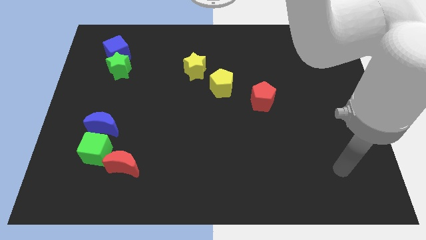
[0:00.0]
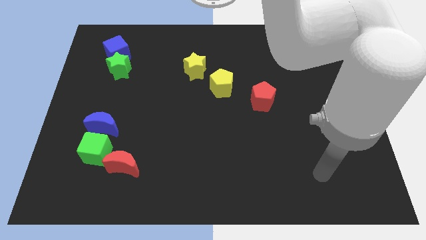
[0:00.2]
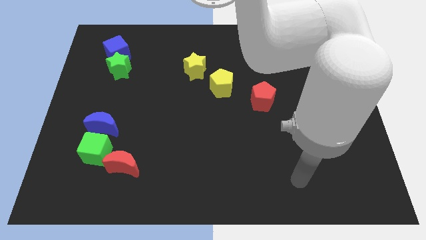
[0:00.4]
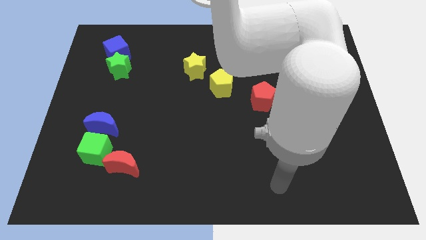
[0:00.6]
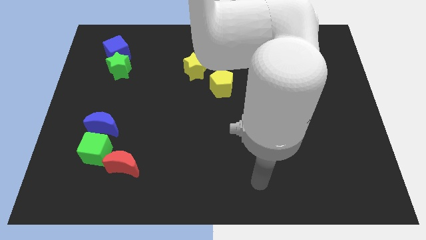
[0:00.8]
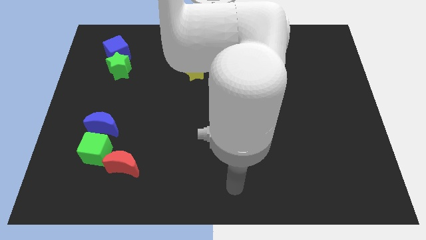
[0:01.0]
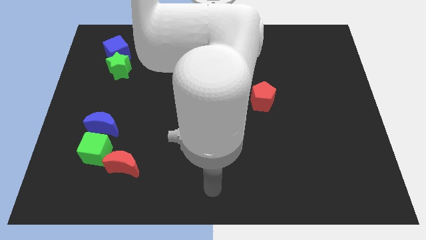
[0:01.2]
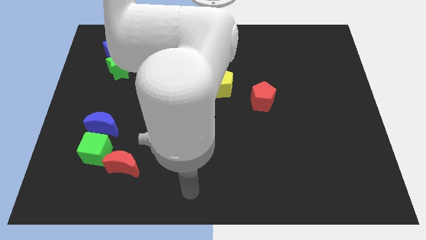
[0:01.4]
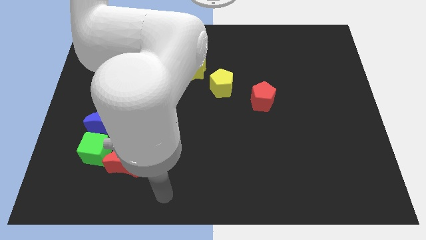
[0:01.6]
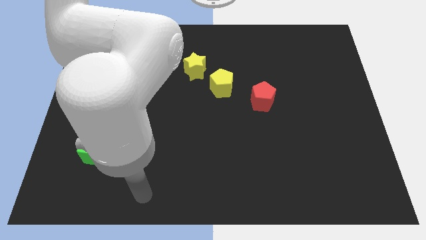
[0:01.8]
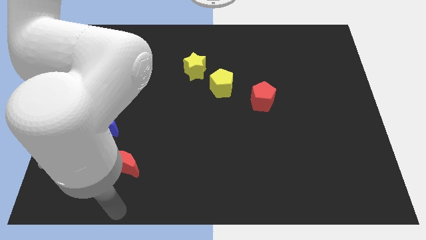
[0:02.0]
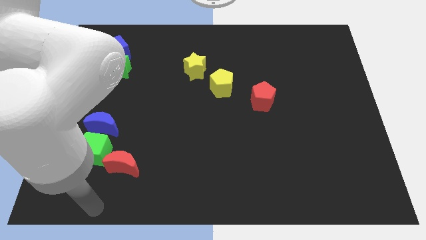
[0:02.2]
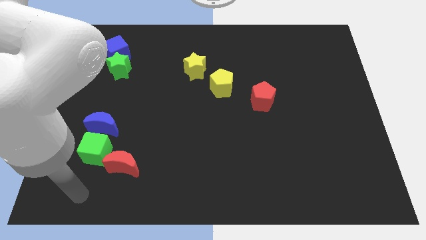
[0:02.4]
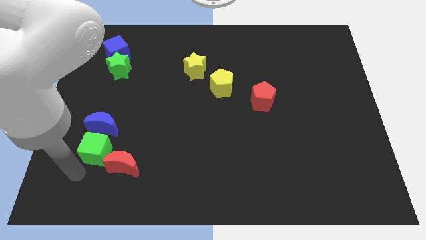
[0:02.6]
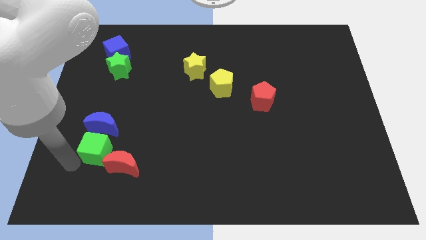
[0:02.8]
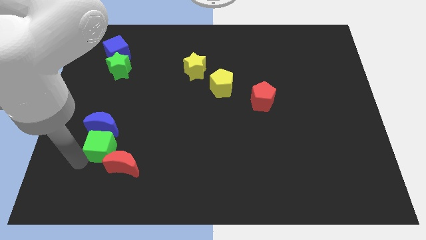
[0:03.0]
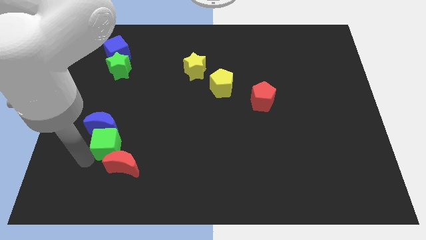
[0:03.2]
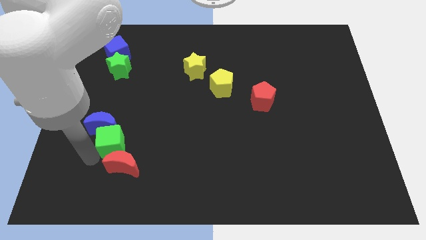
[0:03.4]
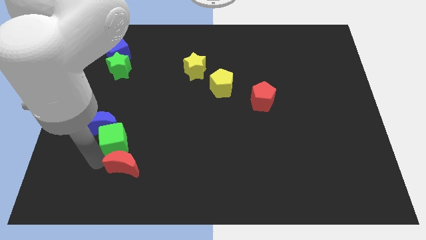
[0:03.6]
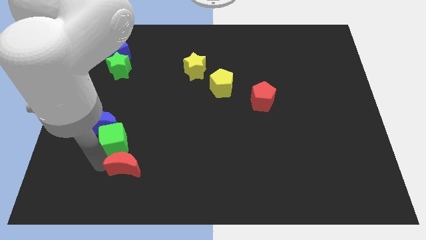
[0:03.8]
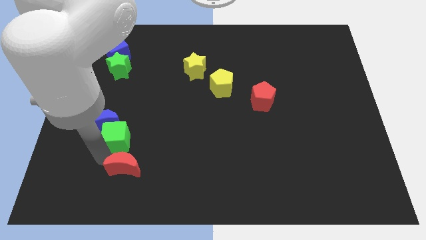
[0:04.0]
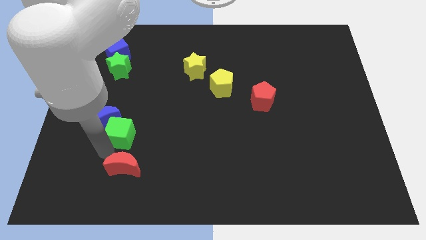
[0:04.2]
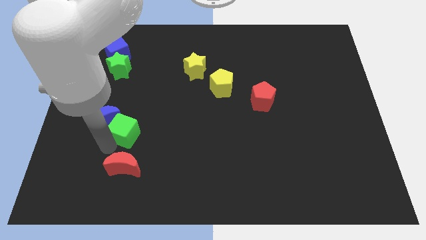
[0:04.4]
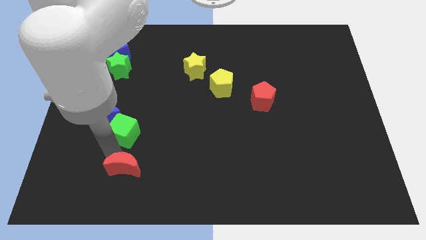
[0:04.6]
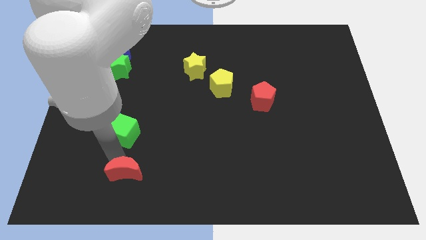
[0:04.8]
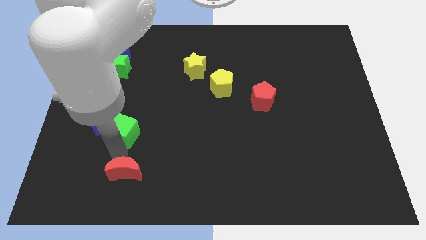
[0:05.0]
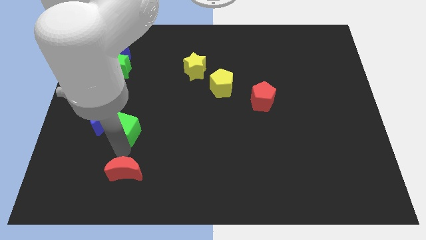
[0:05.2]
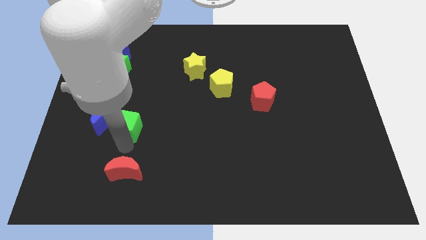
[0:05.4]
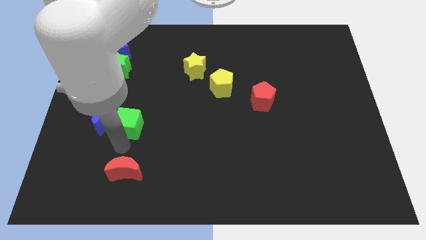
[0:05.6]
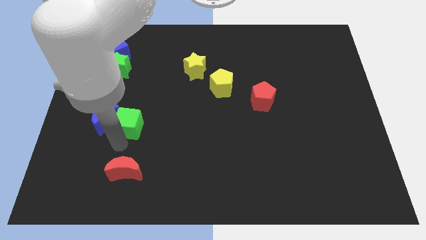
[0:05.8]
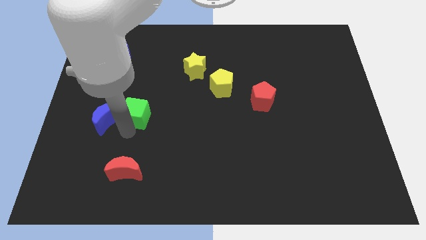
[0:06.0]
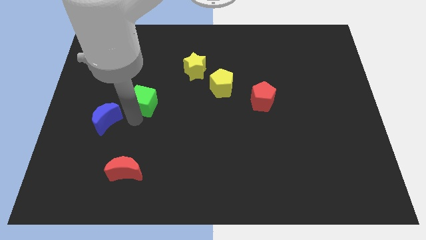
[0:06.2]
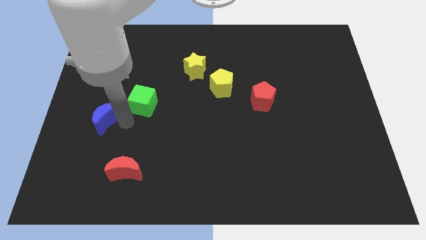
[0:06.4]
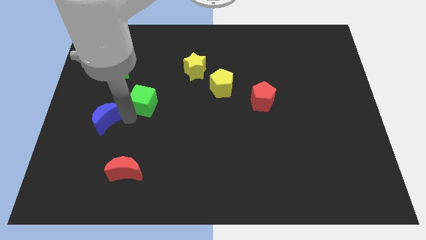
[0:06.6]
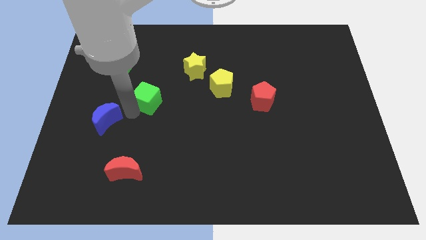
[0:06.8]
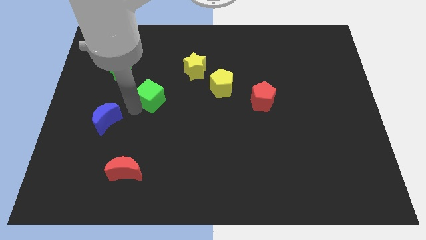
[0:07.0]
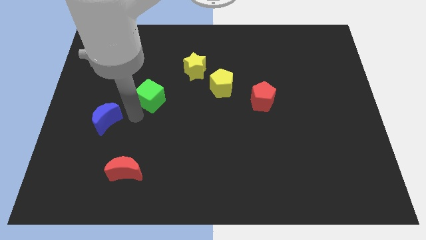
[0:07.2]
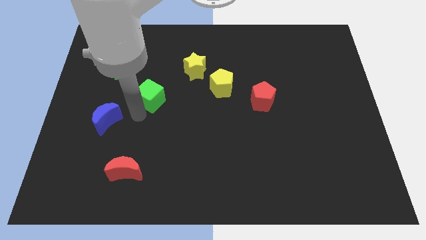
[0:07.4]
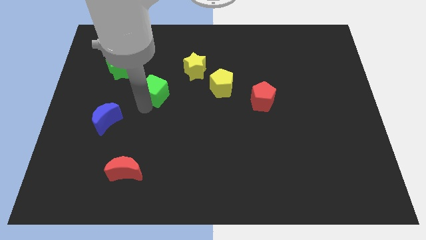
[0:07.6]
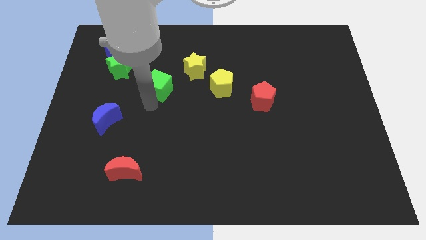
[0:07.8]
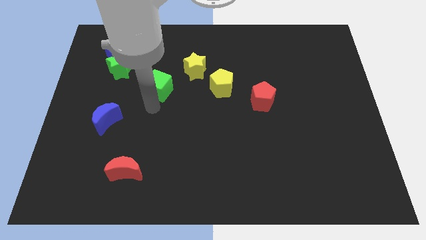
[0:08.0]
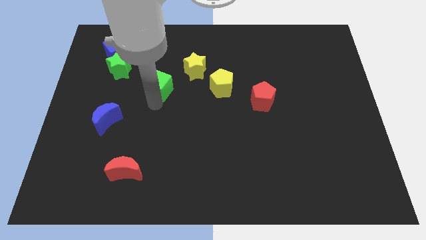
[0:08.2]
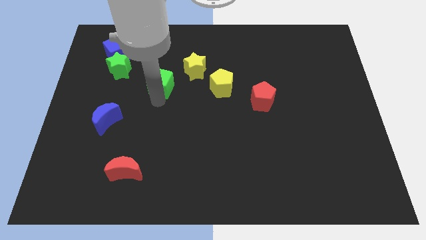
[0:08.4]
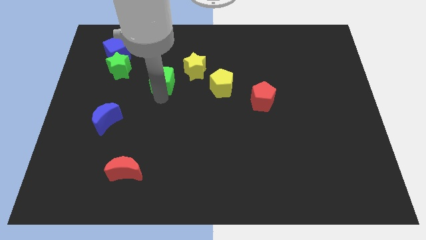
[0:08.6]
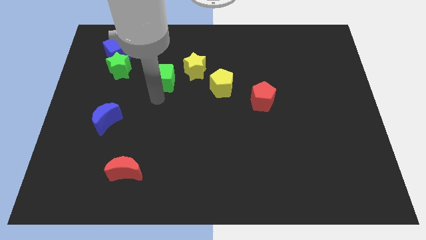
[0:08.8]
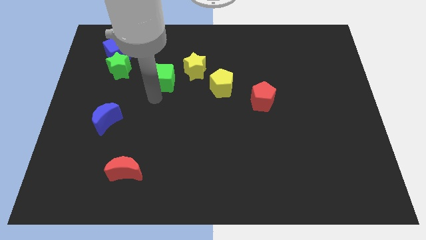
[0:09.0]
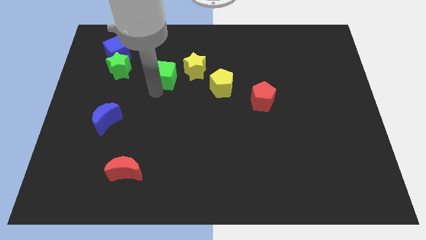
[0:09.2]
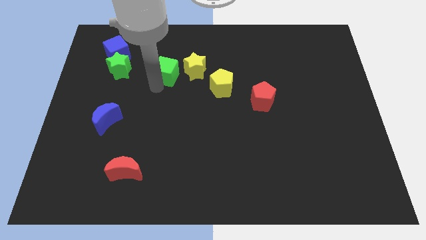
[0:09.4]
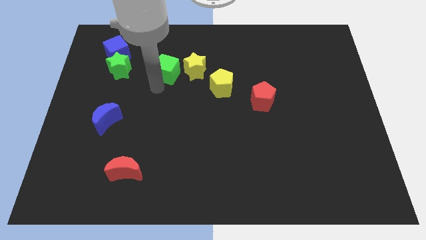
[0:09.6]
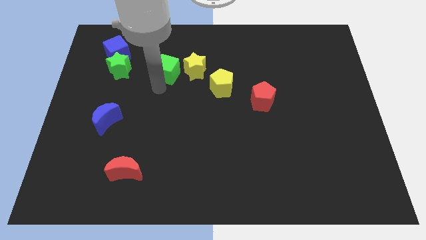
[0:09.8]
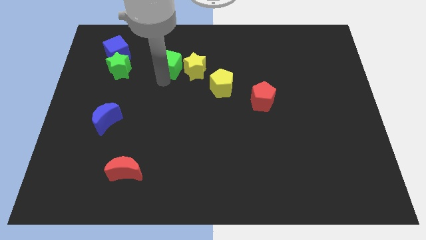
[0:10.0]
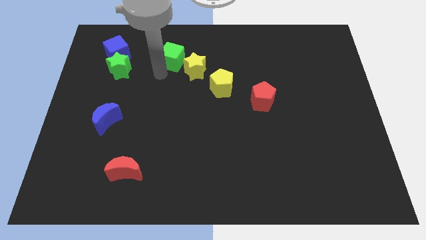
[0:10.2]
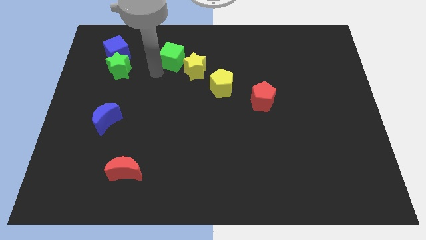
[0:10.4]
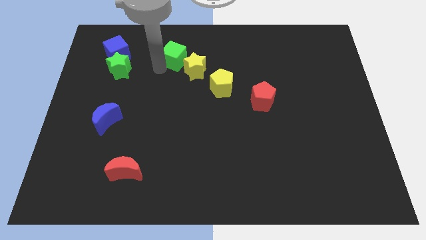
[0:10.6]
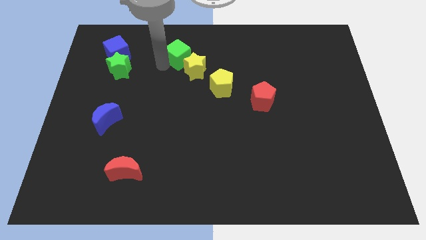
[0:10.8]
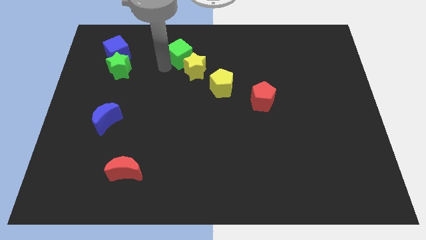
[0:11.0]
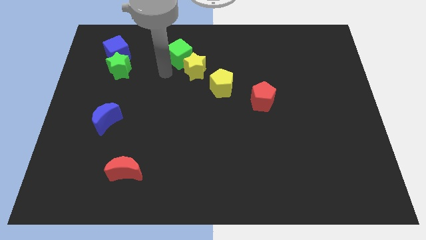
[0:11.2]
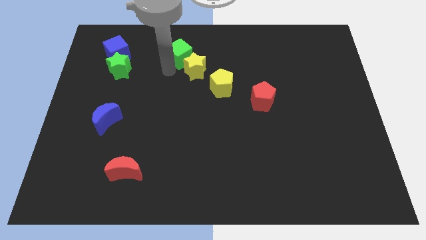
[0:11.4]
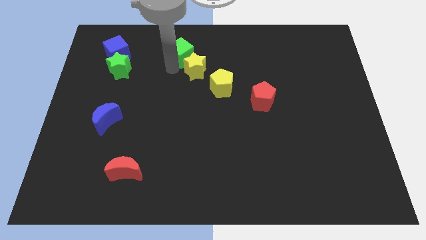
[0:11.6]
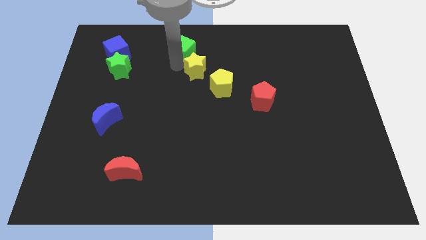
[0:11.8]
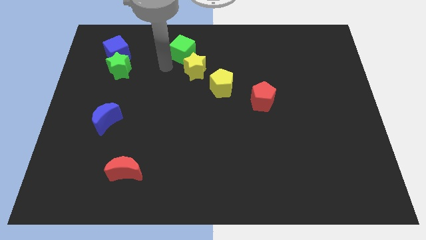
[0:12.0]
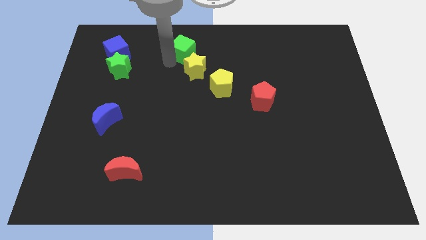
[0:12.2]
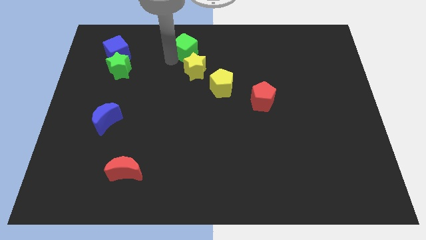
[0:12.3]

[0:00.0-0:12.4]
slide the green cube to the towards your base

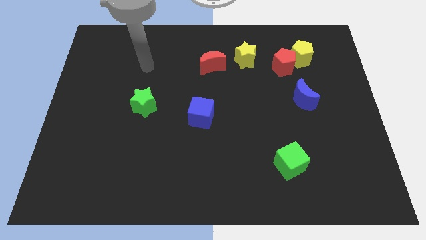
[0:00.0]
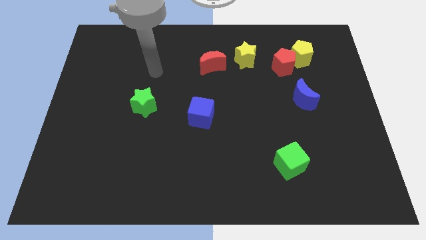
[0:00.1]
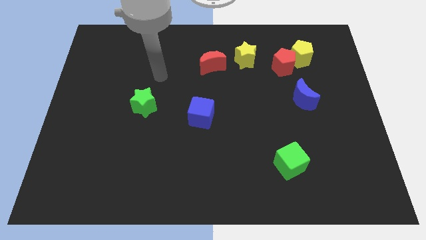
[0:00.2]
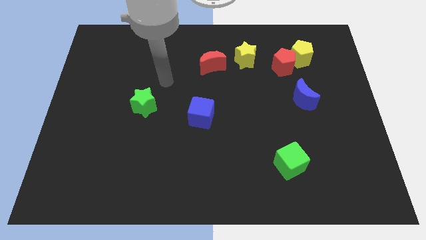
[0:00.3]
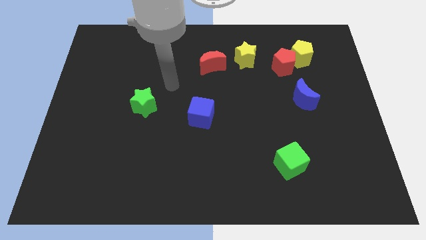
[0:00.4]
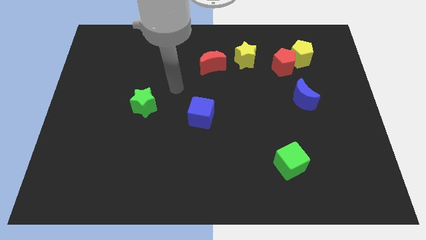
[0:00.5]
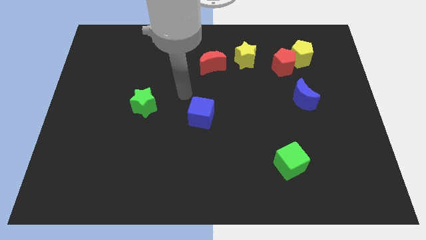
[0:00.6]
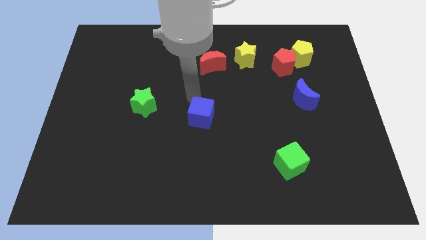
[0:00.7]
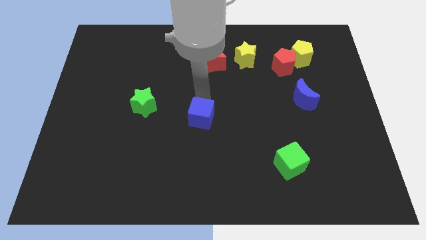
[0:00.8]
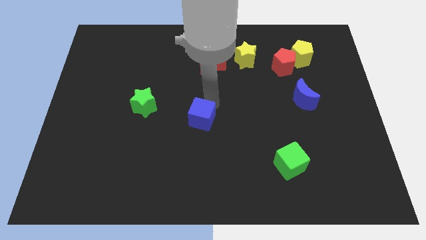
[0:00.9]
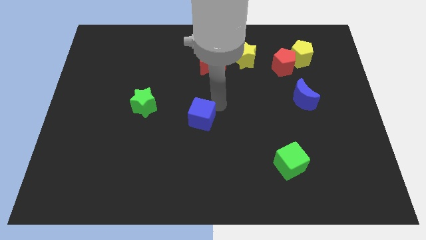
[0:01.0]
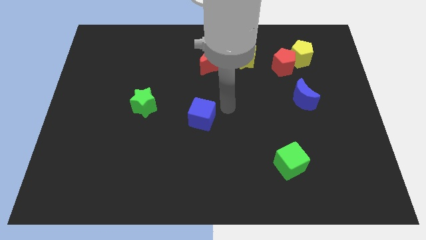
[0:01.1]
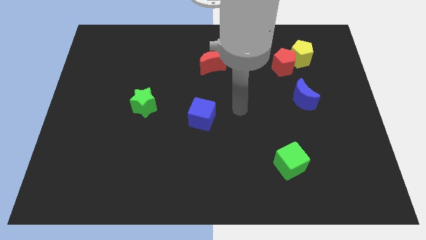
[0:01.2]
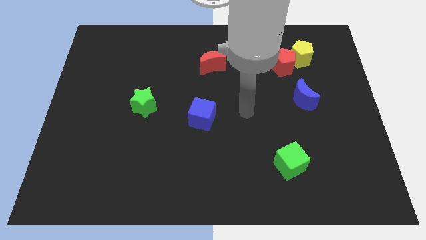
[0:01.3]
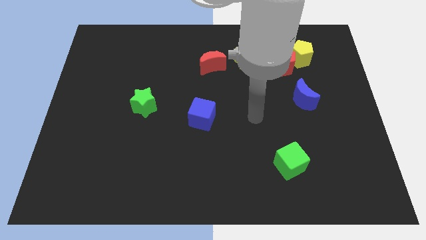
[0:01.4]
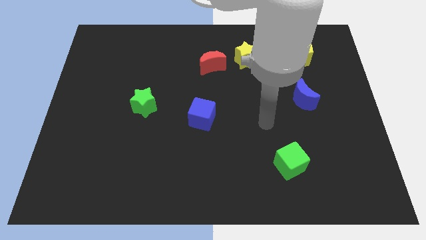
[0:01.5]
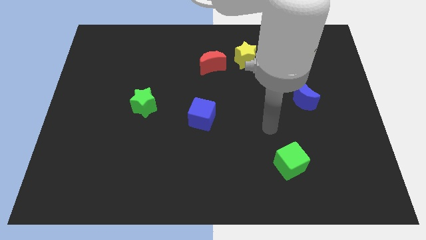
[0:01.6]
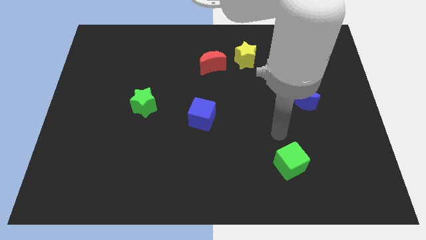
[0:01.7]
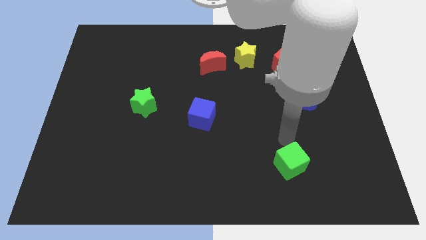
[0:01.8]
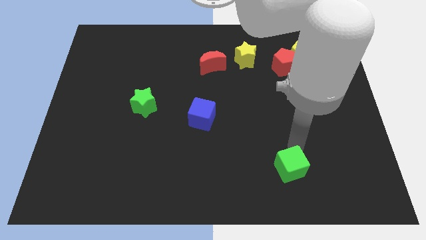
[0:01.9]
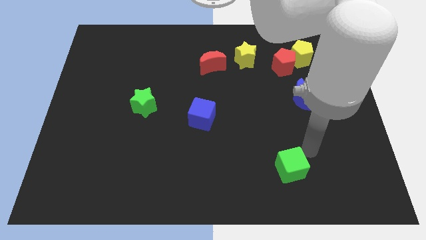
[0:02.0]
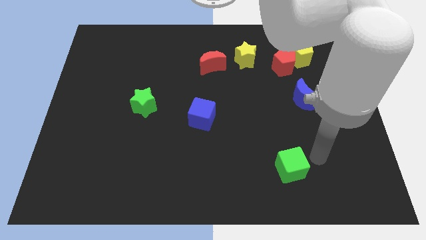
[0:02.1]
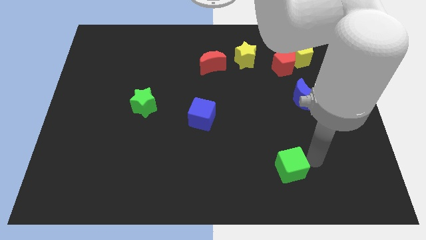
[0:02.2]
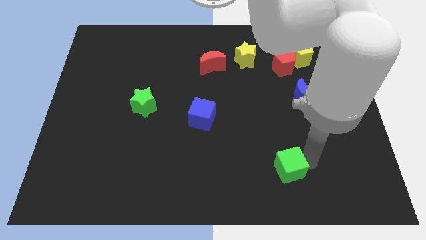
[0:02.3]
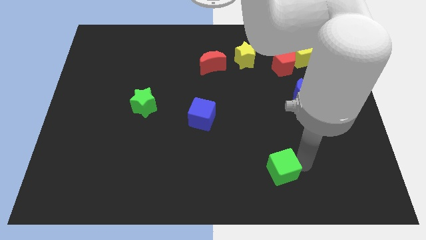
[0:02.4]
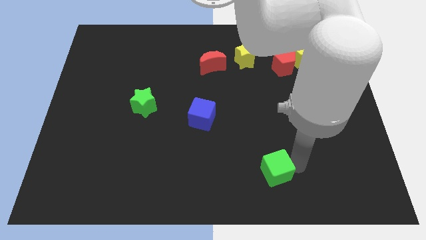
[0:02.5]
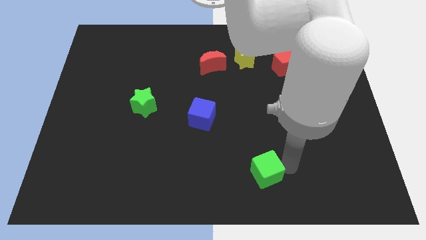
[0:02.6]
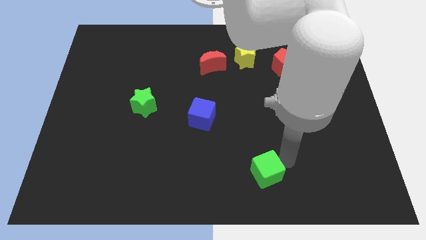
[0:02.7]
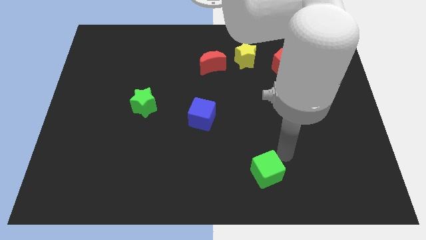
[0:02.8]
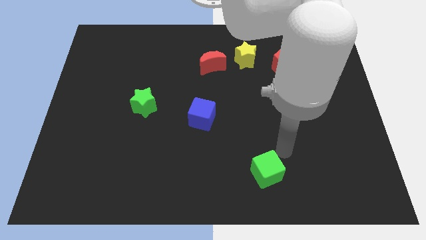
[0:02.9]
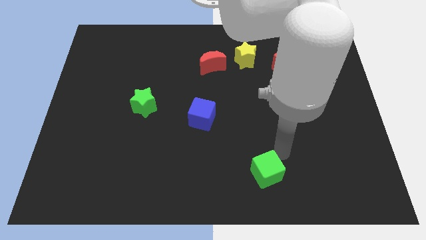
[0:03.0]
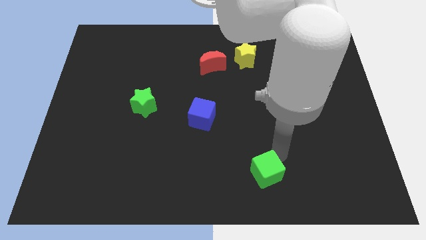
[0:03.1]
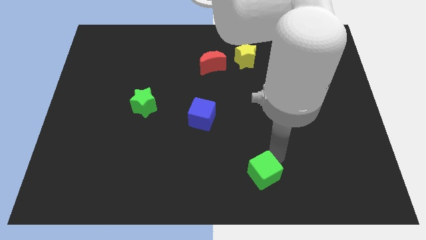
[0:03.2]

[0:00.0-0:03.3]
push the green cube to the bottom
